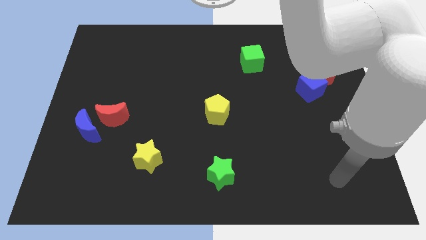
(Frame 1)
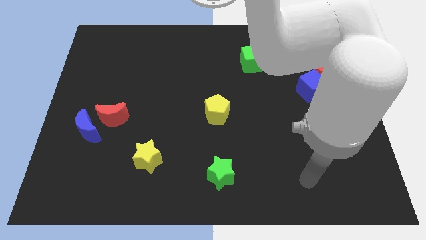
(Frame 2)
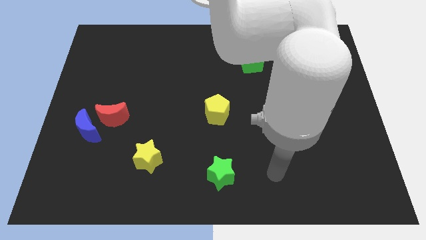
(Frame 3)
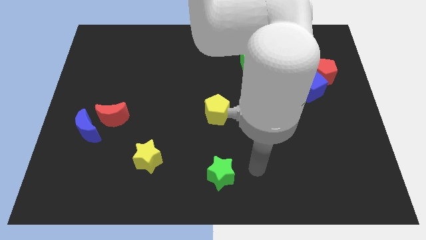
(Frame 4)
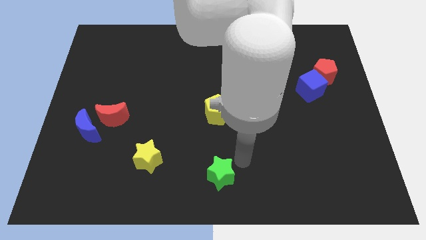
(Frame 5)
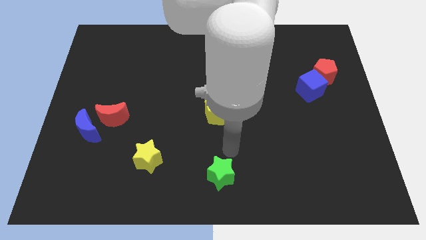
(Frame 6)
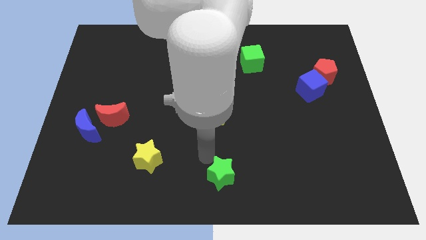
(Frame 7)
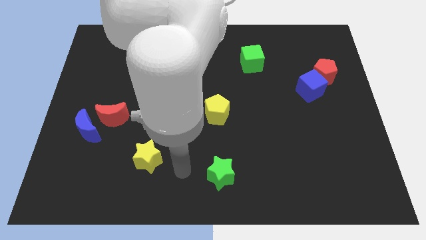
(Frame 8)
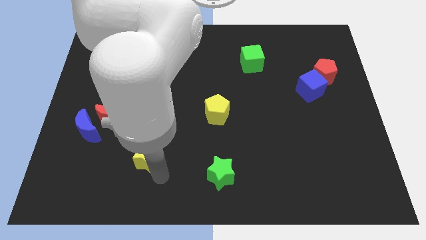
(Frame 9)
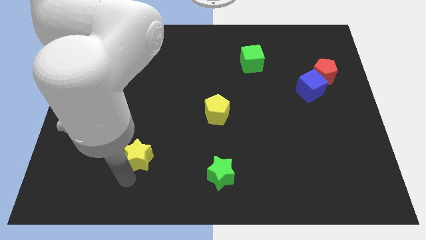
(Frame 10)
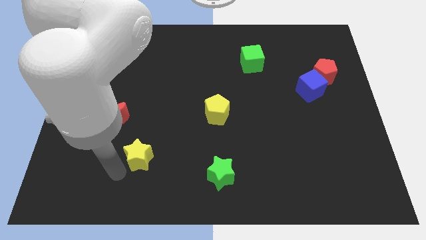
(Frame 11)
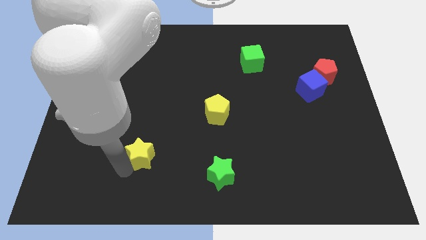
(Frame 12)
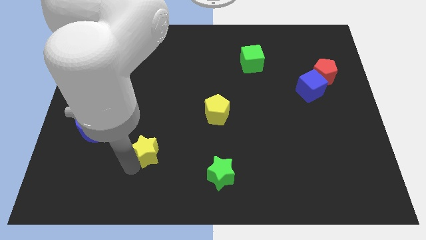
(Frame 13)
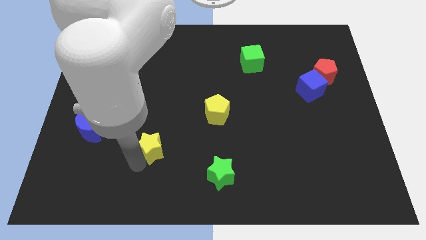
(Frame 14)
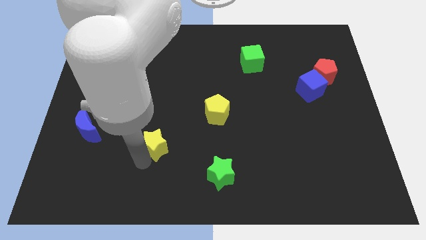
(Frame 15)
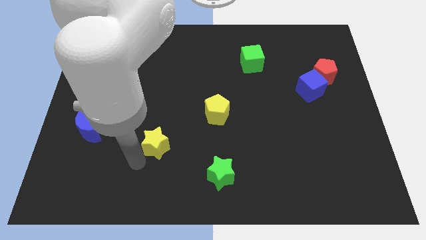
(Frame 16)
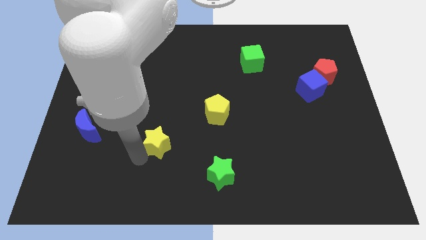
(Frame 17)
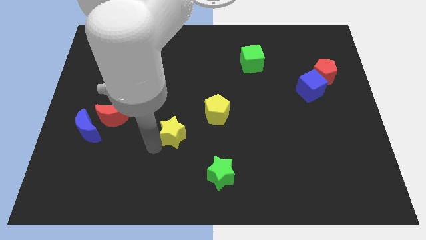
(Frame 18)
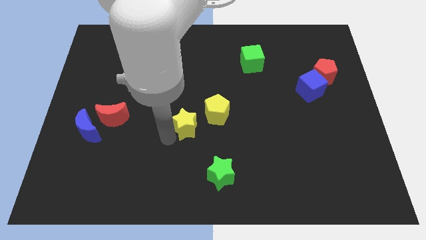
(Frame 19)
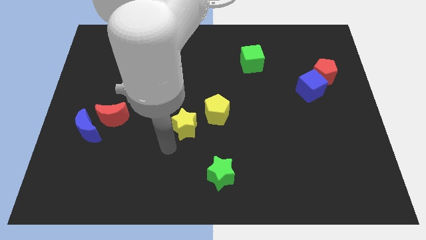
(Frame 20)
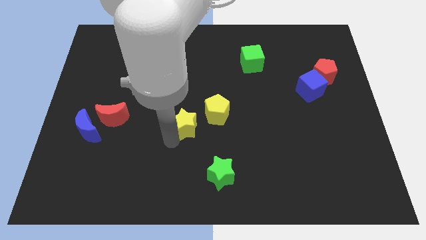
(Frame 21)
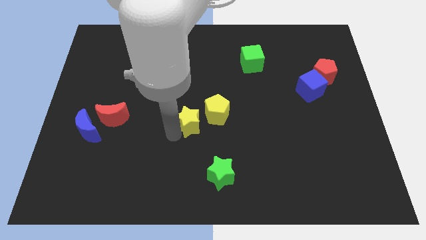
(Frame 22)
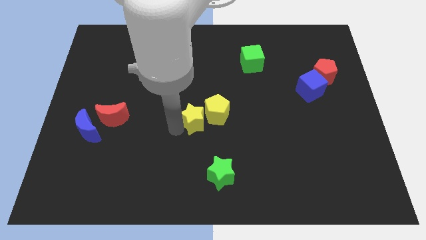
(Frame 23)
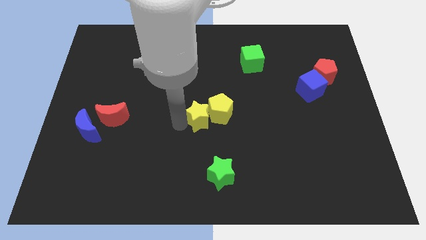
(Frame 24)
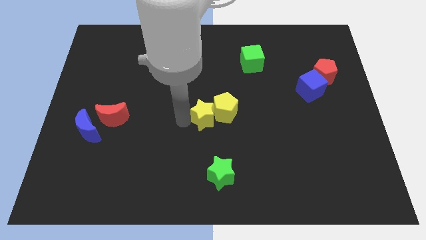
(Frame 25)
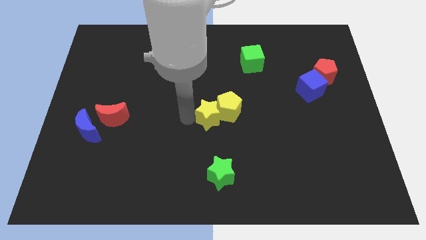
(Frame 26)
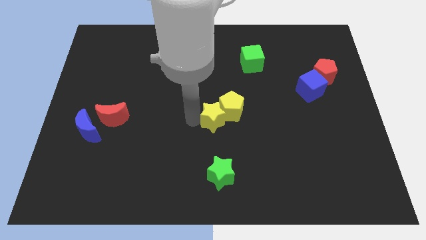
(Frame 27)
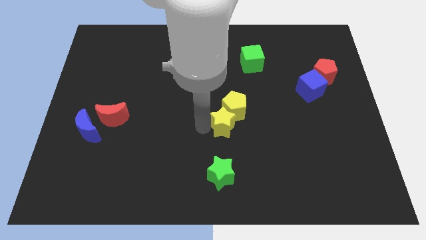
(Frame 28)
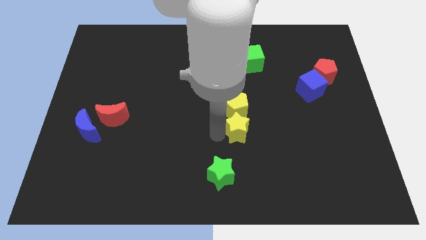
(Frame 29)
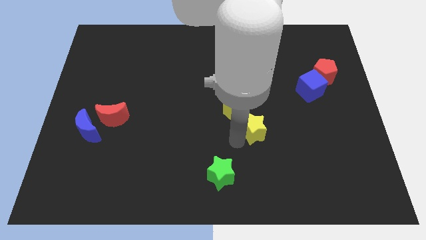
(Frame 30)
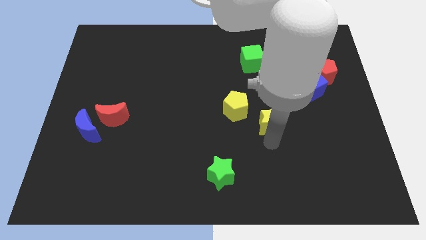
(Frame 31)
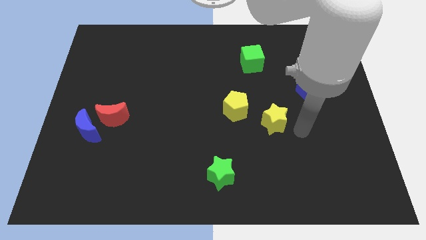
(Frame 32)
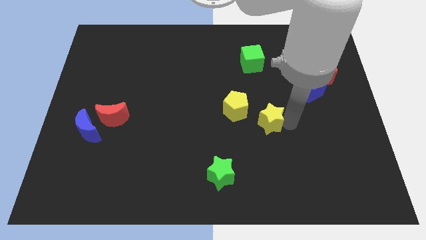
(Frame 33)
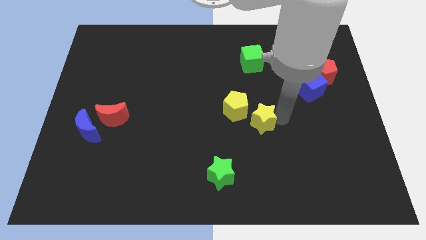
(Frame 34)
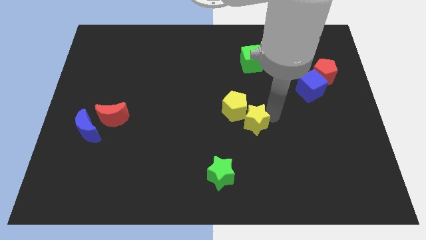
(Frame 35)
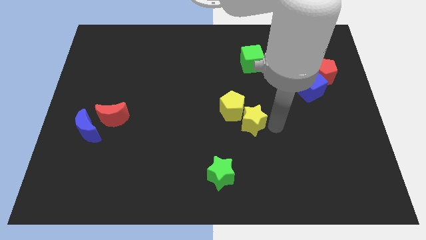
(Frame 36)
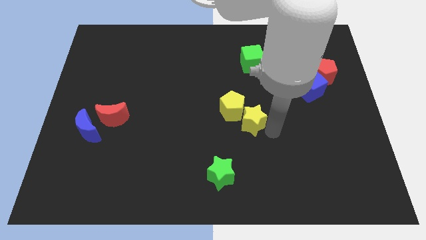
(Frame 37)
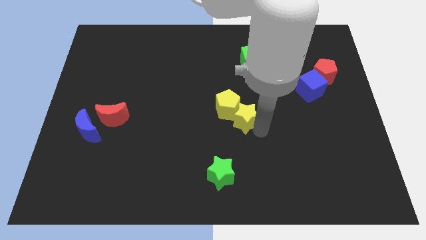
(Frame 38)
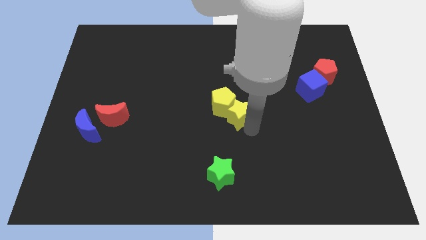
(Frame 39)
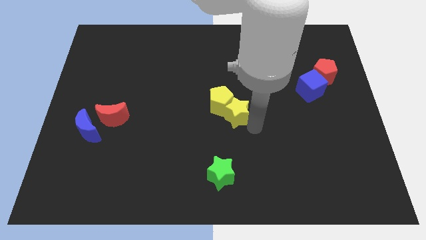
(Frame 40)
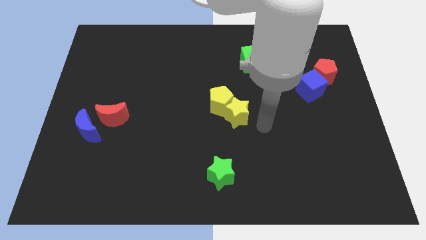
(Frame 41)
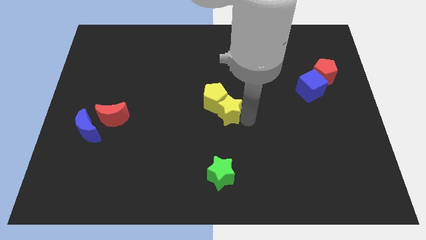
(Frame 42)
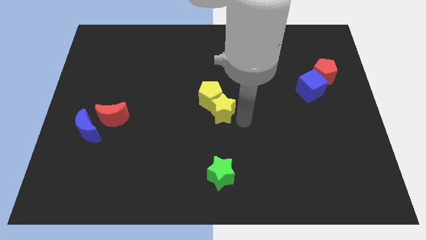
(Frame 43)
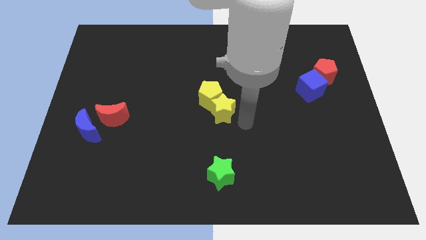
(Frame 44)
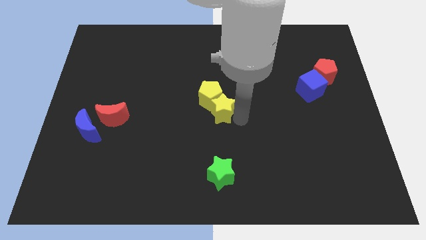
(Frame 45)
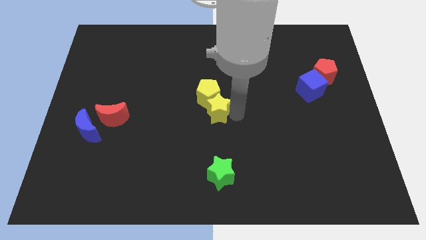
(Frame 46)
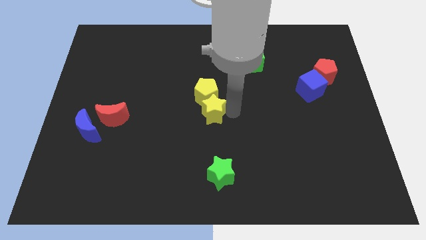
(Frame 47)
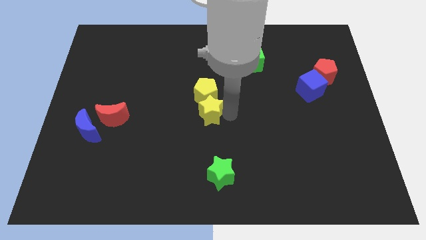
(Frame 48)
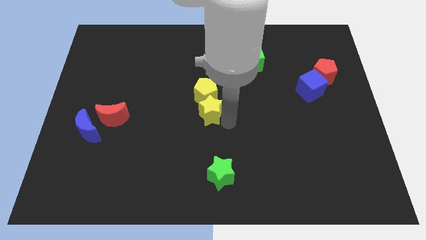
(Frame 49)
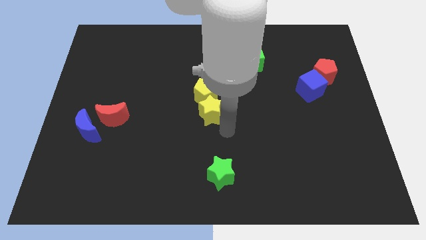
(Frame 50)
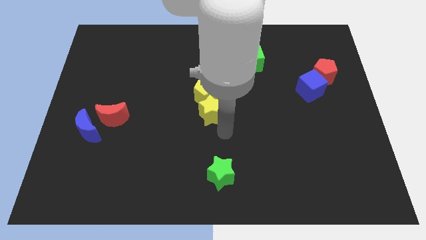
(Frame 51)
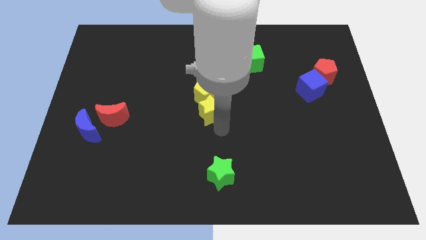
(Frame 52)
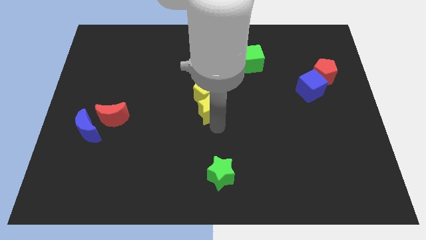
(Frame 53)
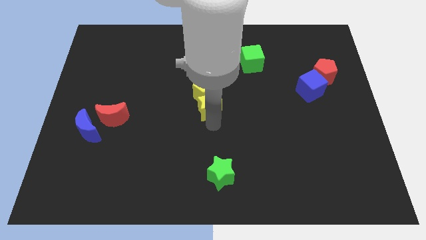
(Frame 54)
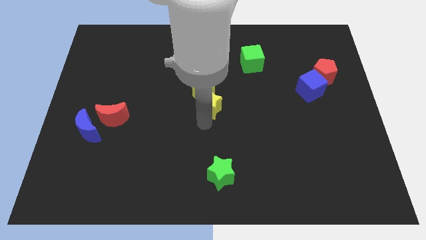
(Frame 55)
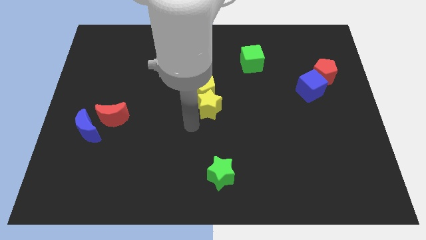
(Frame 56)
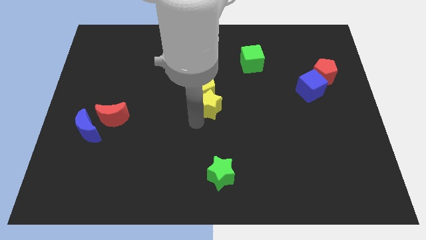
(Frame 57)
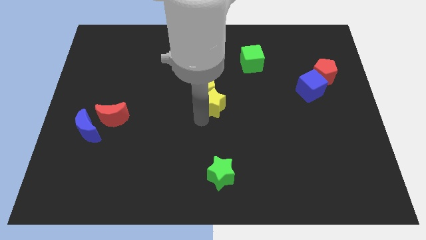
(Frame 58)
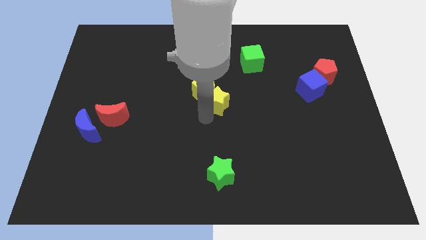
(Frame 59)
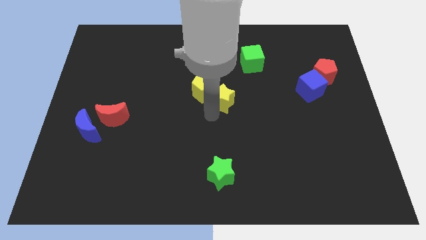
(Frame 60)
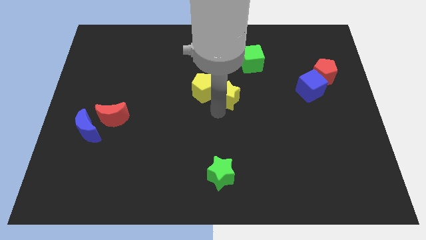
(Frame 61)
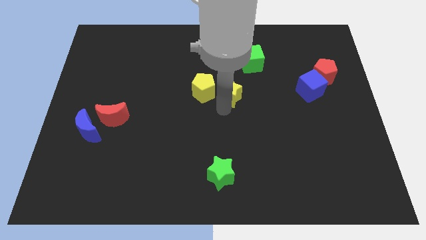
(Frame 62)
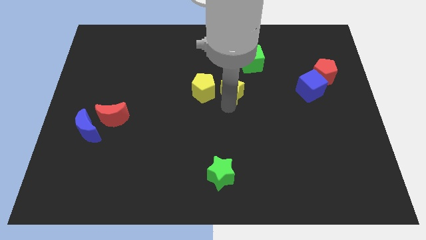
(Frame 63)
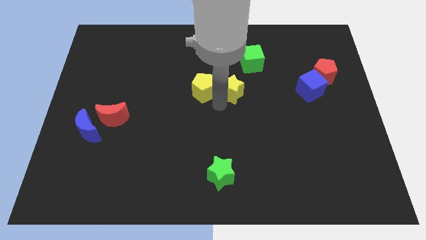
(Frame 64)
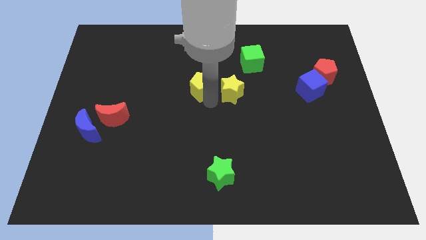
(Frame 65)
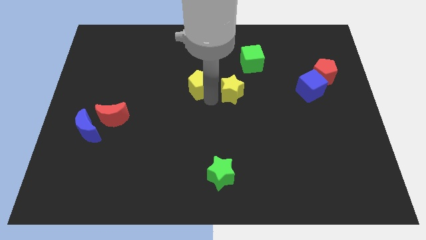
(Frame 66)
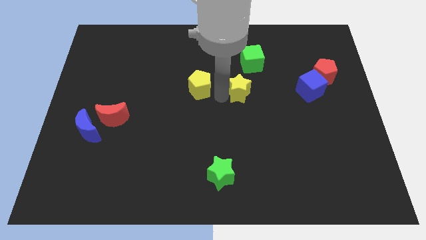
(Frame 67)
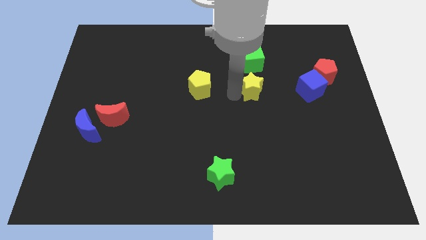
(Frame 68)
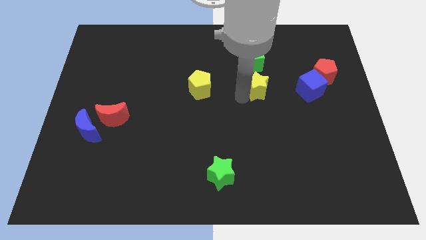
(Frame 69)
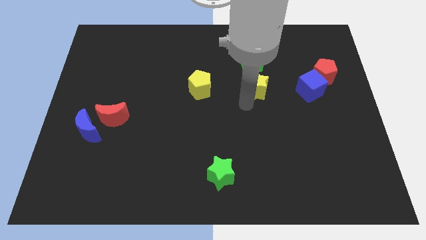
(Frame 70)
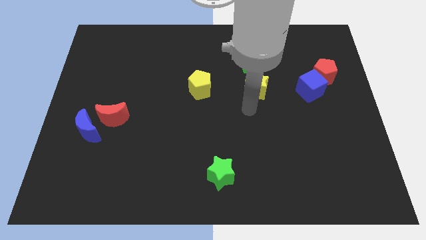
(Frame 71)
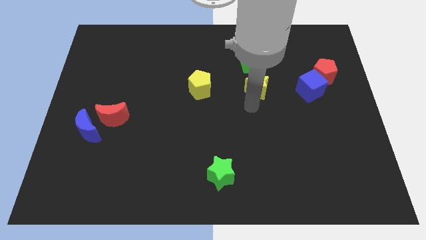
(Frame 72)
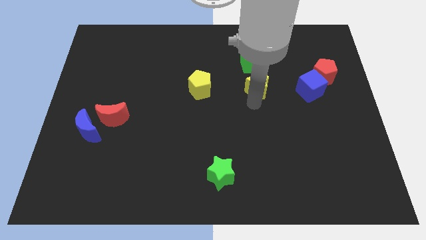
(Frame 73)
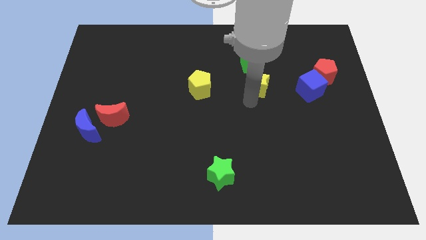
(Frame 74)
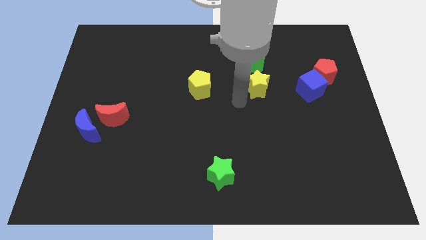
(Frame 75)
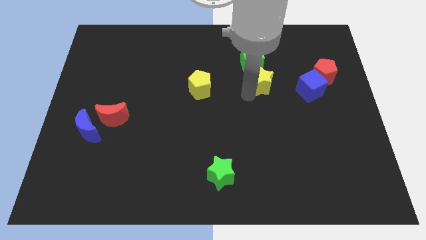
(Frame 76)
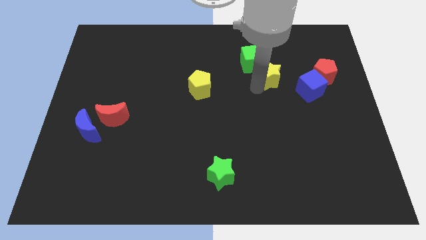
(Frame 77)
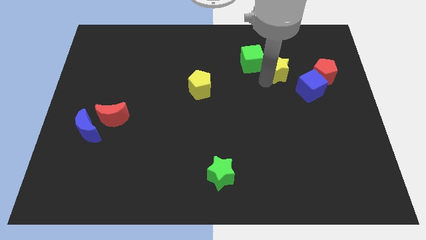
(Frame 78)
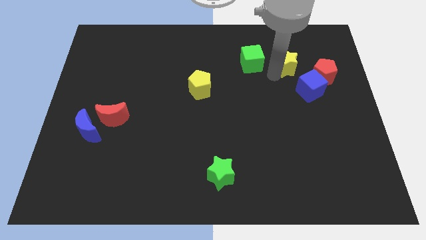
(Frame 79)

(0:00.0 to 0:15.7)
slide the yellow star to the top left of the red pentagon
